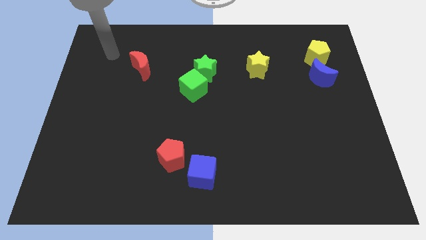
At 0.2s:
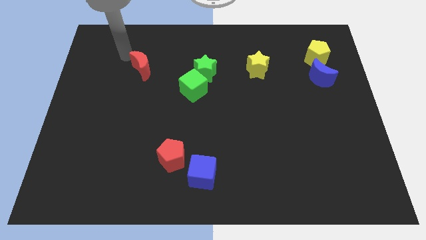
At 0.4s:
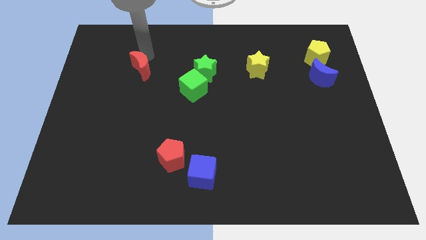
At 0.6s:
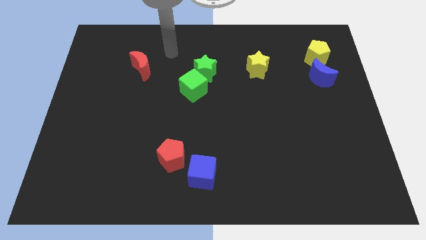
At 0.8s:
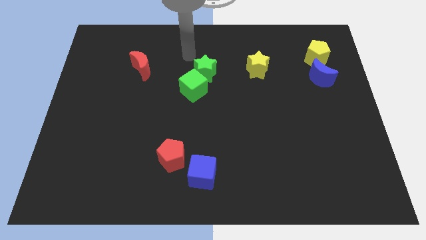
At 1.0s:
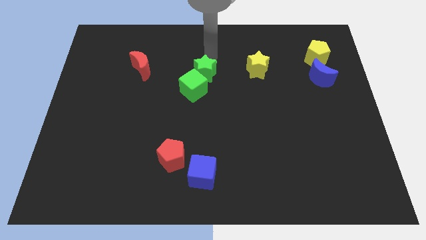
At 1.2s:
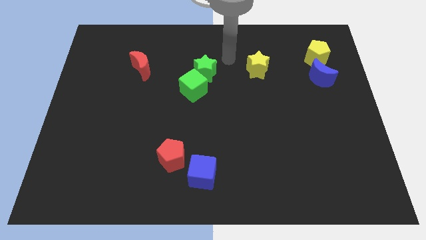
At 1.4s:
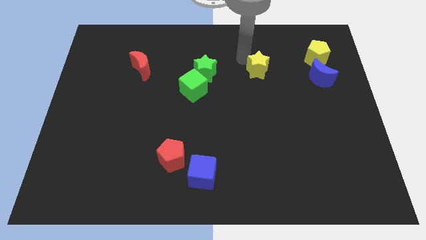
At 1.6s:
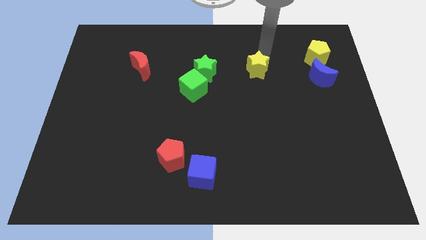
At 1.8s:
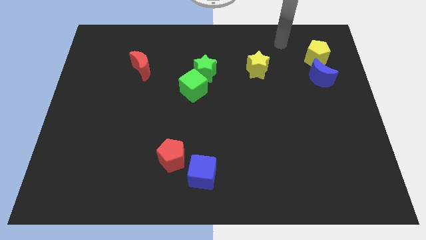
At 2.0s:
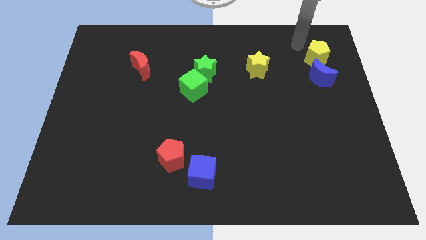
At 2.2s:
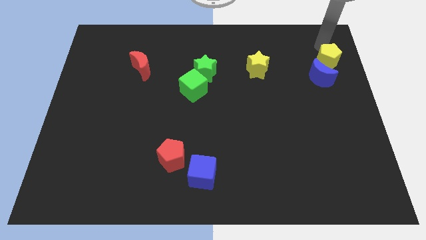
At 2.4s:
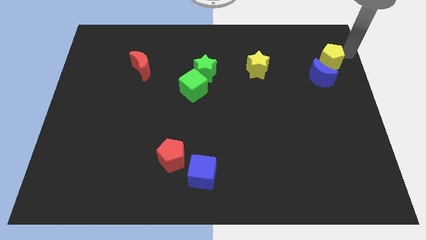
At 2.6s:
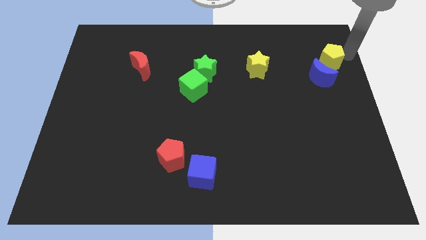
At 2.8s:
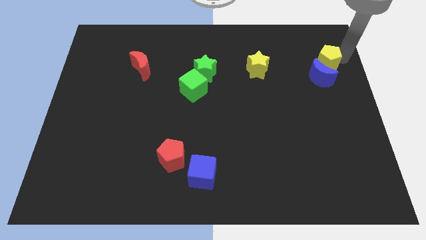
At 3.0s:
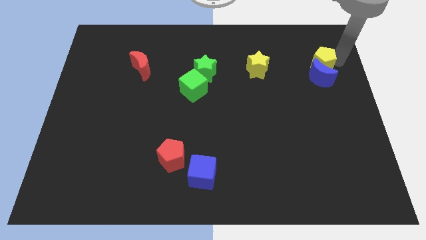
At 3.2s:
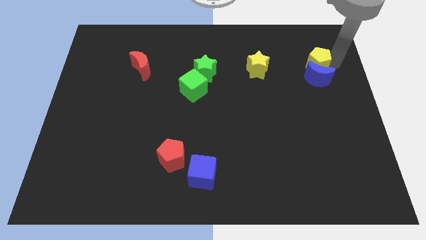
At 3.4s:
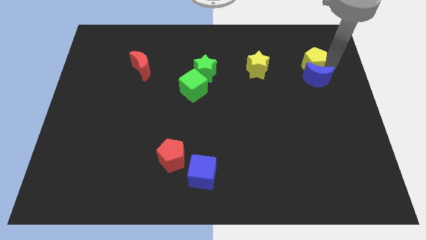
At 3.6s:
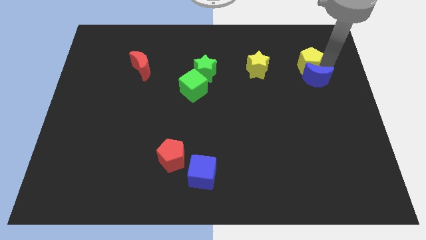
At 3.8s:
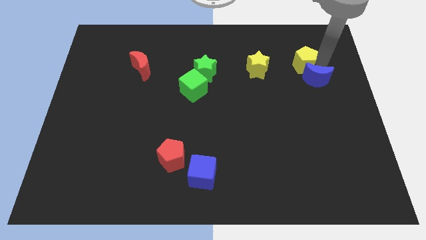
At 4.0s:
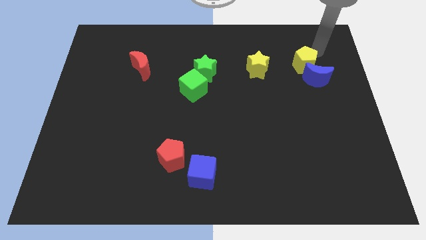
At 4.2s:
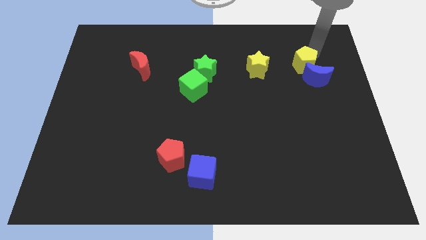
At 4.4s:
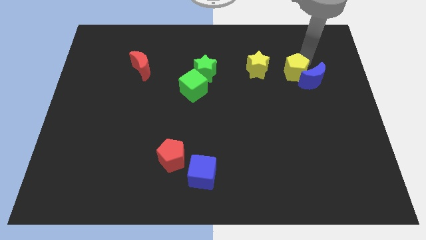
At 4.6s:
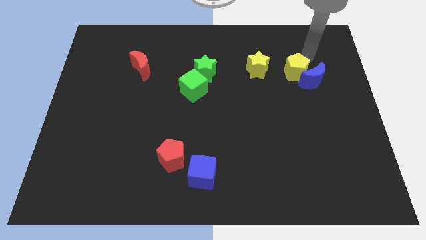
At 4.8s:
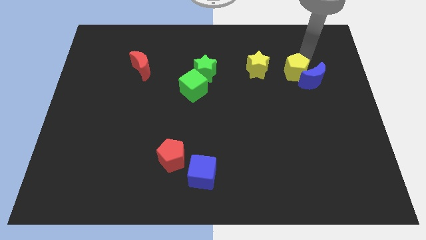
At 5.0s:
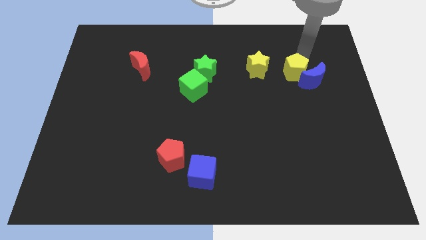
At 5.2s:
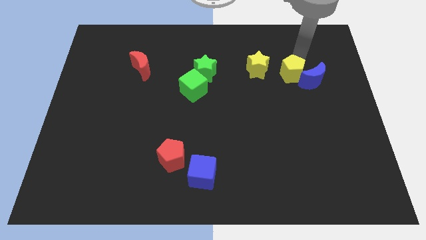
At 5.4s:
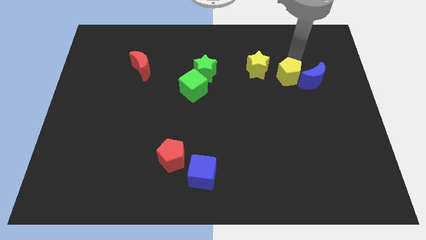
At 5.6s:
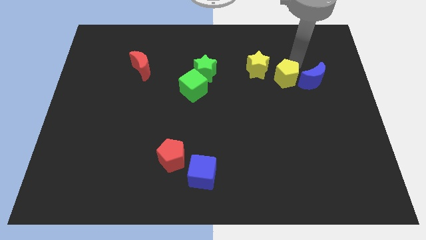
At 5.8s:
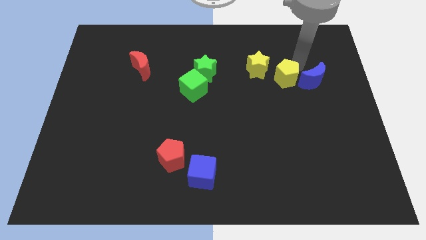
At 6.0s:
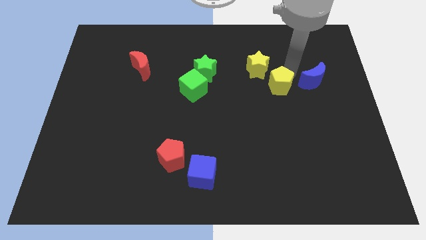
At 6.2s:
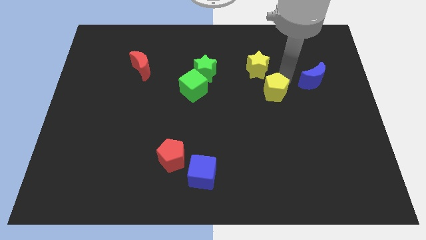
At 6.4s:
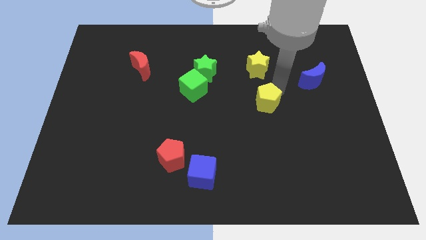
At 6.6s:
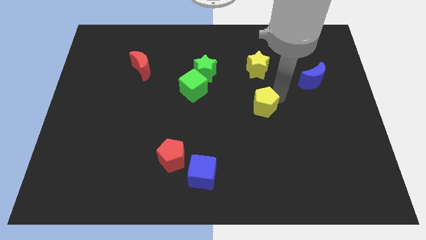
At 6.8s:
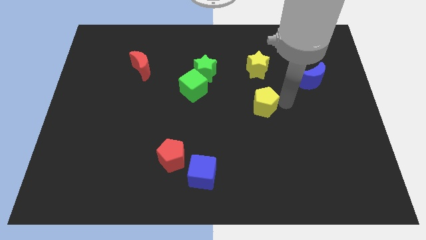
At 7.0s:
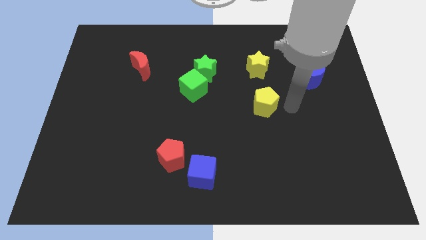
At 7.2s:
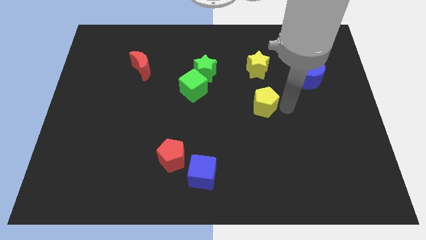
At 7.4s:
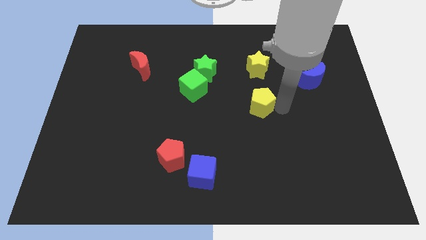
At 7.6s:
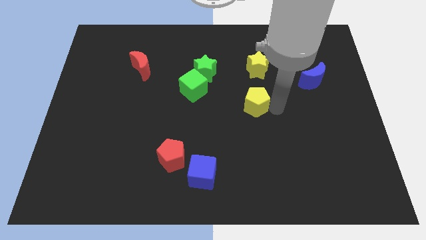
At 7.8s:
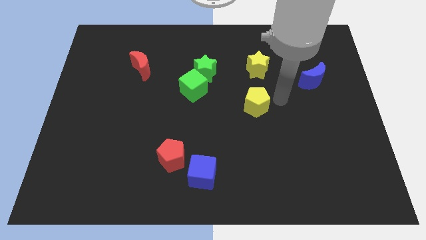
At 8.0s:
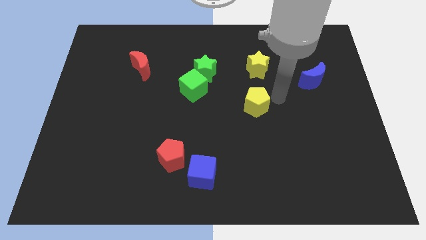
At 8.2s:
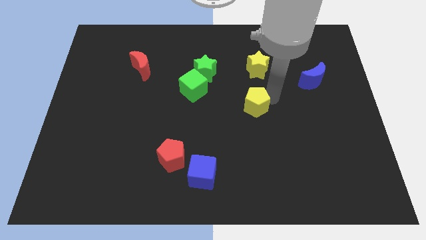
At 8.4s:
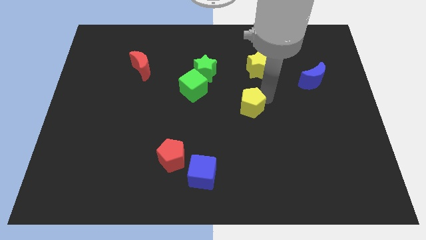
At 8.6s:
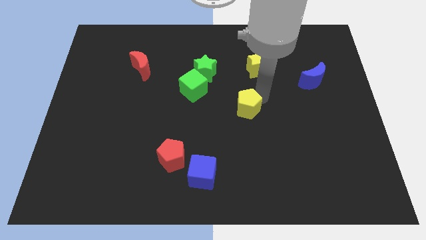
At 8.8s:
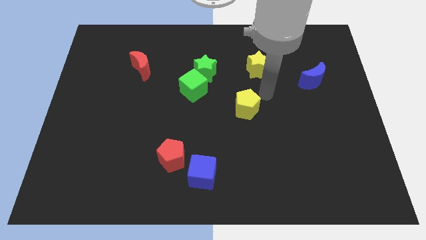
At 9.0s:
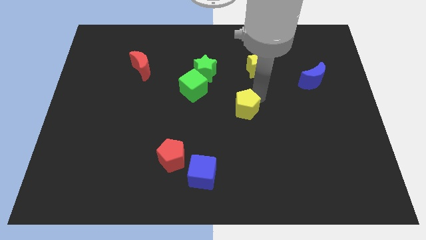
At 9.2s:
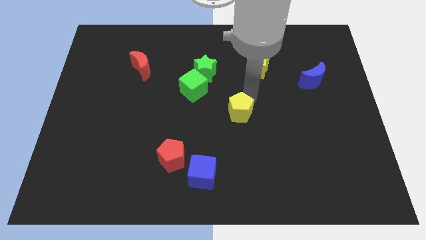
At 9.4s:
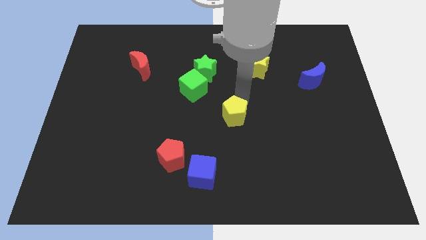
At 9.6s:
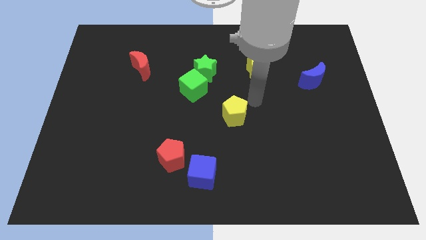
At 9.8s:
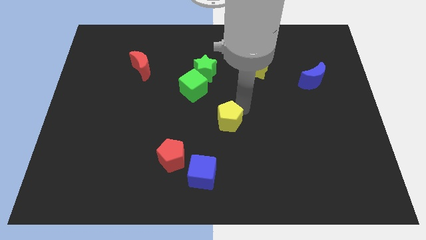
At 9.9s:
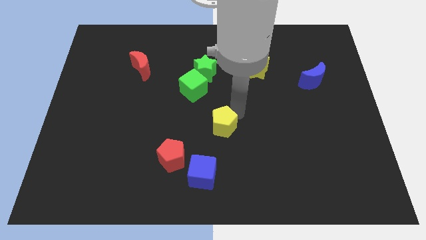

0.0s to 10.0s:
put the yellow pentagon to the top side of the blue cube

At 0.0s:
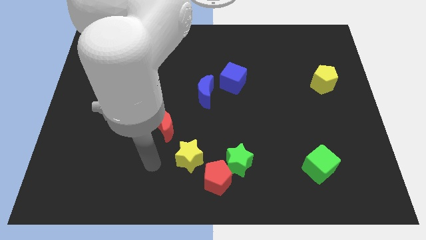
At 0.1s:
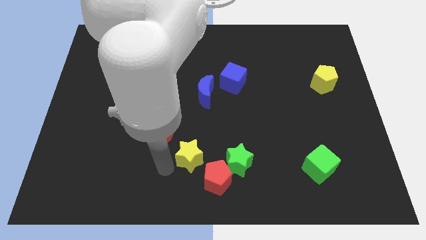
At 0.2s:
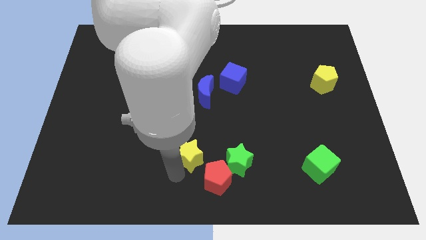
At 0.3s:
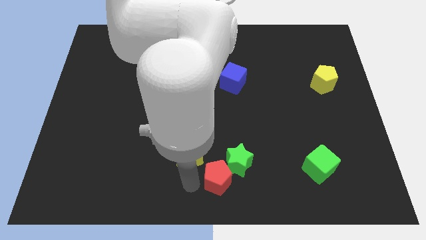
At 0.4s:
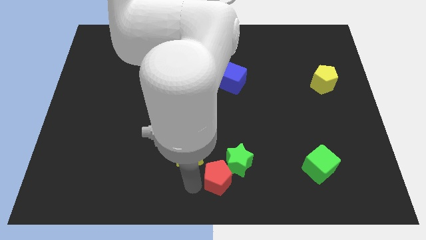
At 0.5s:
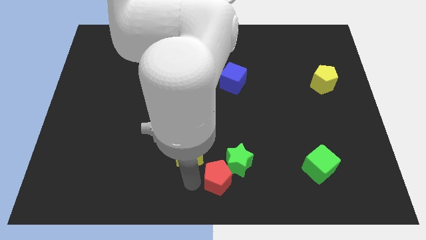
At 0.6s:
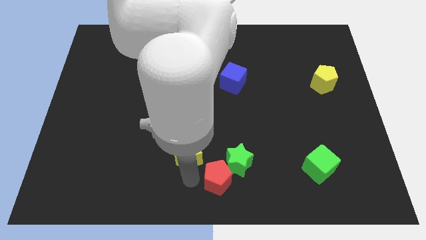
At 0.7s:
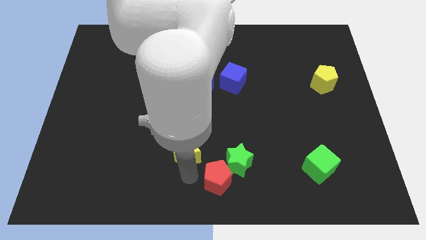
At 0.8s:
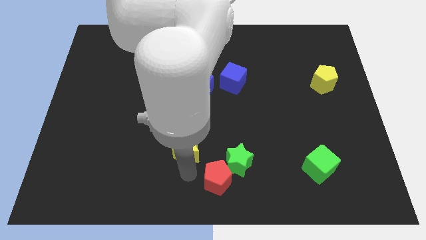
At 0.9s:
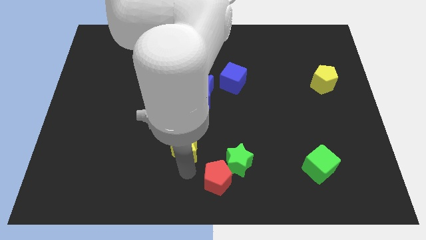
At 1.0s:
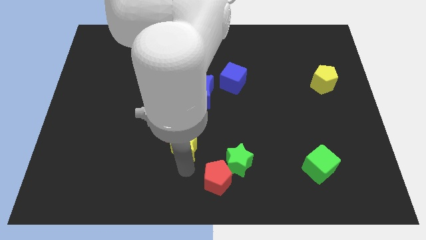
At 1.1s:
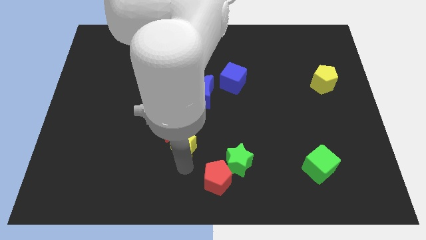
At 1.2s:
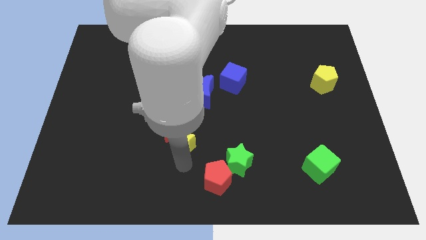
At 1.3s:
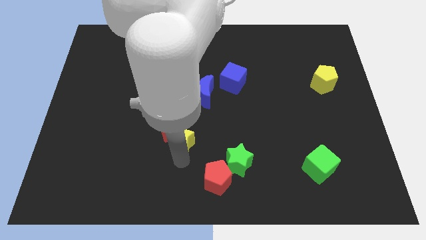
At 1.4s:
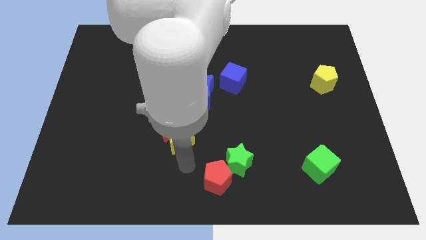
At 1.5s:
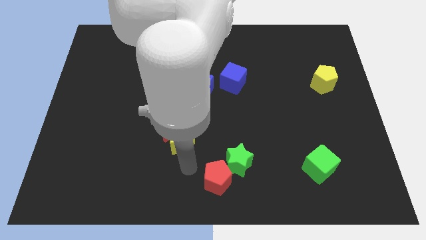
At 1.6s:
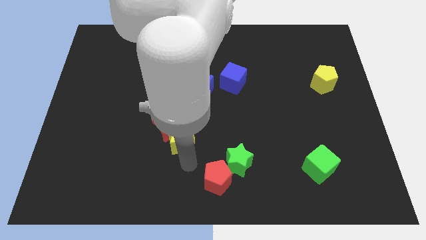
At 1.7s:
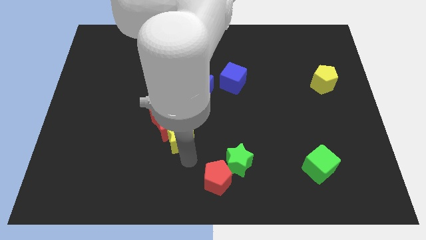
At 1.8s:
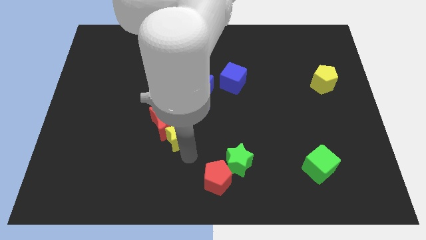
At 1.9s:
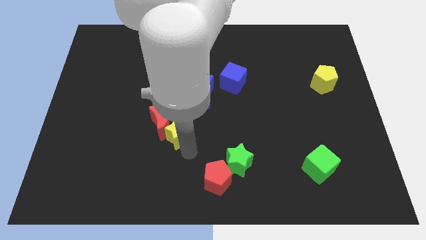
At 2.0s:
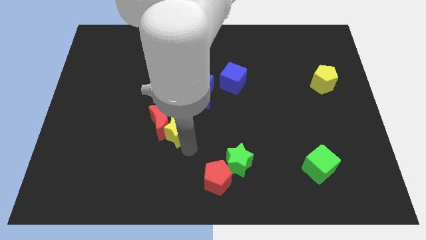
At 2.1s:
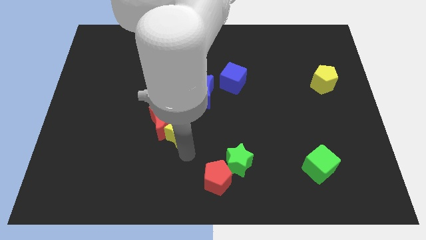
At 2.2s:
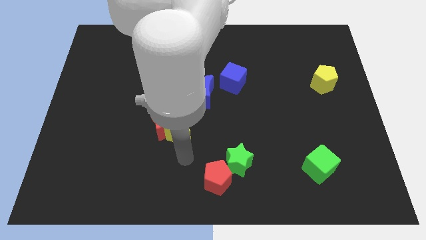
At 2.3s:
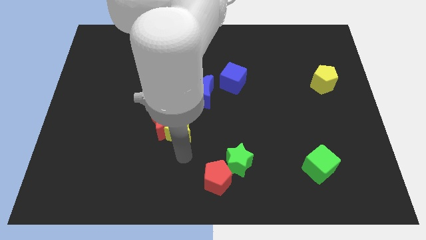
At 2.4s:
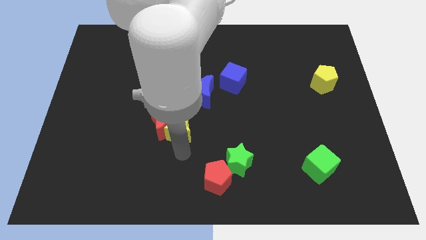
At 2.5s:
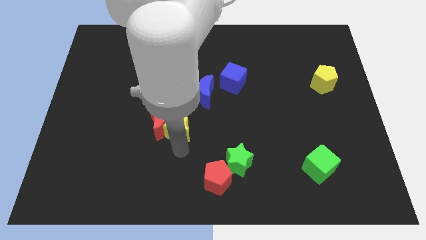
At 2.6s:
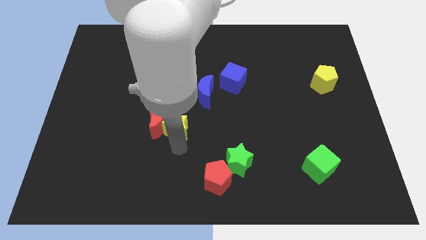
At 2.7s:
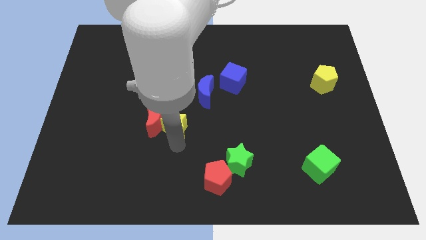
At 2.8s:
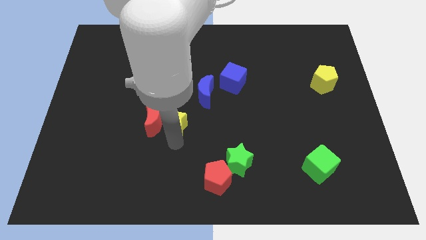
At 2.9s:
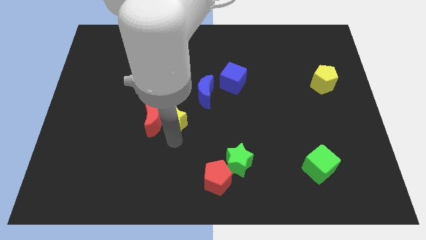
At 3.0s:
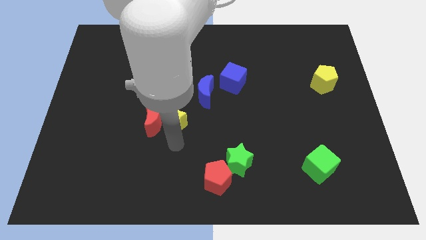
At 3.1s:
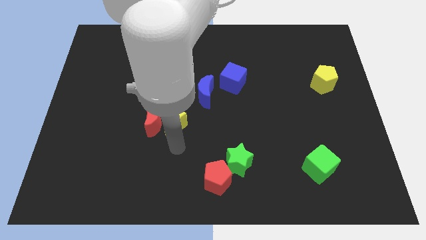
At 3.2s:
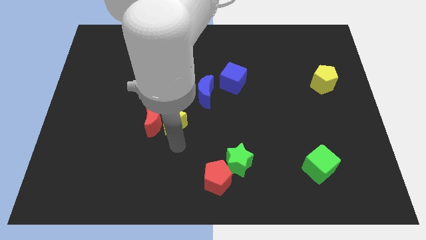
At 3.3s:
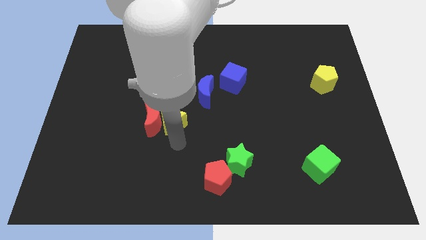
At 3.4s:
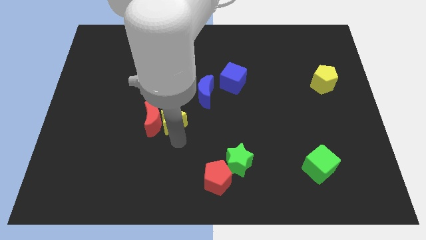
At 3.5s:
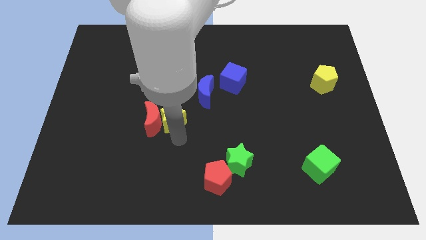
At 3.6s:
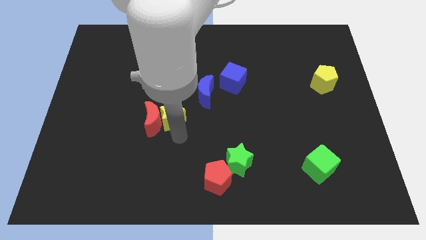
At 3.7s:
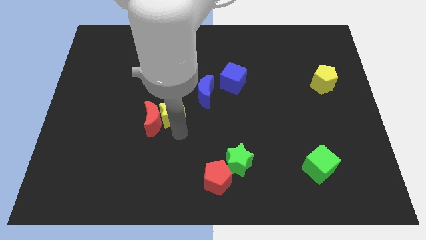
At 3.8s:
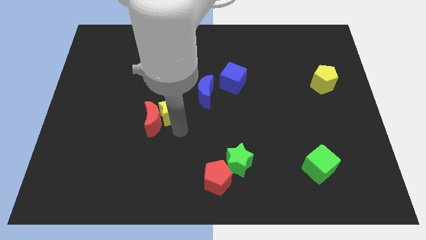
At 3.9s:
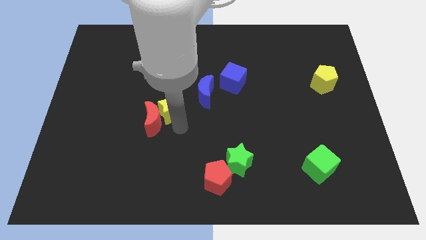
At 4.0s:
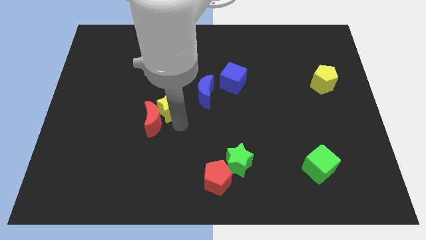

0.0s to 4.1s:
put the yellow star to the left side of the blue moon
